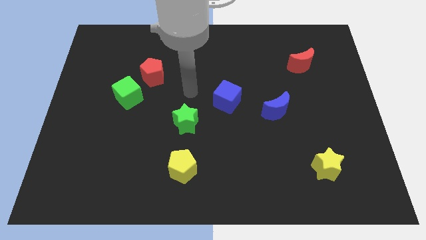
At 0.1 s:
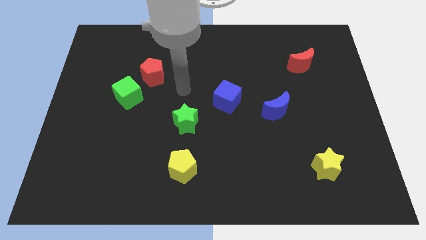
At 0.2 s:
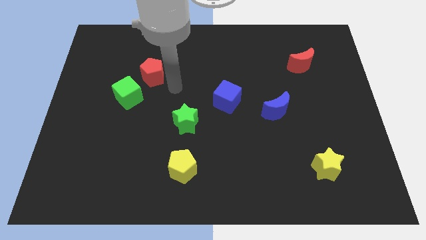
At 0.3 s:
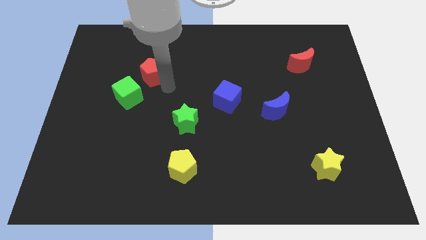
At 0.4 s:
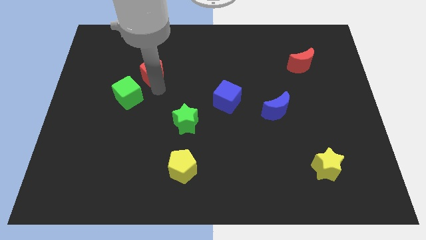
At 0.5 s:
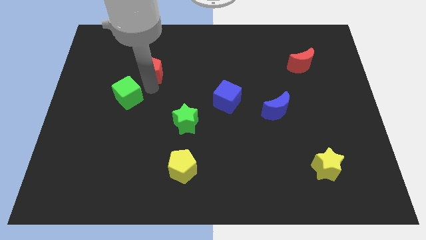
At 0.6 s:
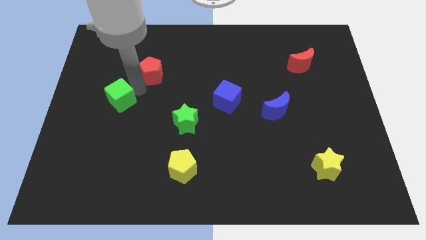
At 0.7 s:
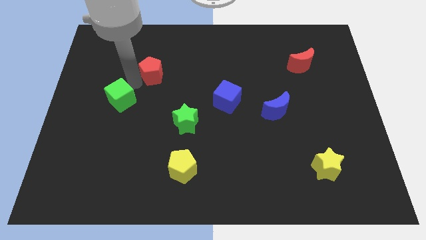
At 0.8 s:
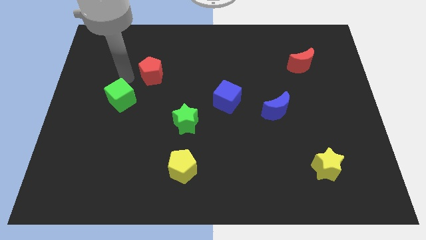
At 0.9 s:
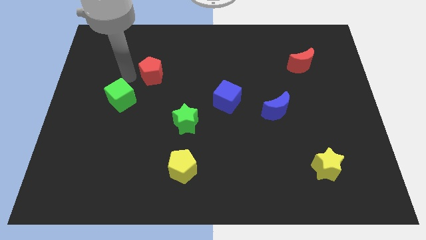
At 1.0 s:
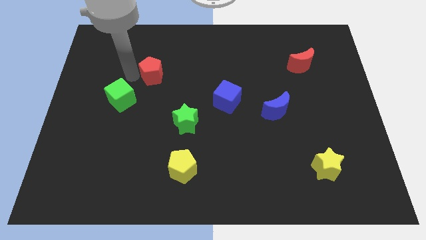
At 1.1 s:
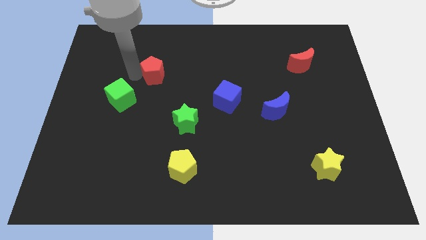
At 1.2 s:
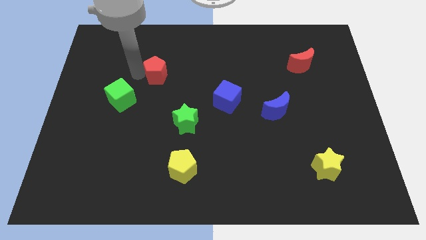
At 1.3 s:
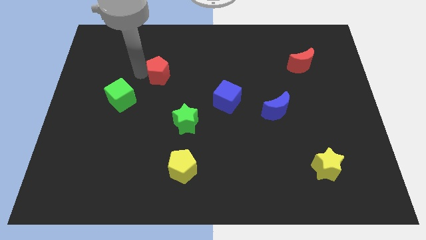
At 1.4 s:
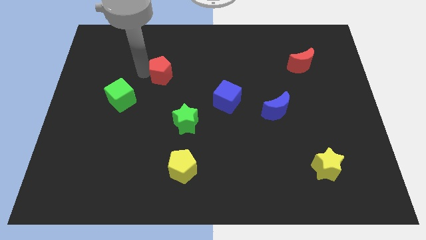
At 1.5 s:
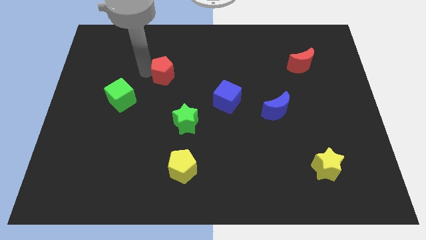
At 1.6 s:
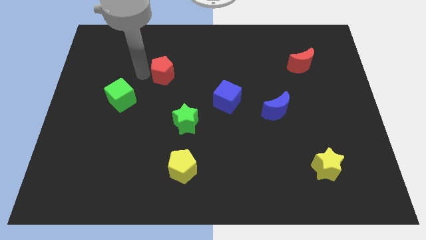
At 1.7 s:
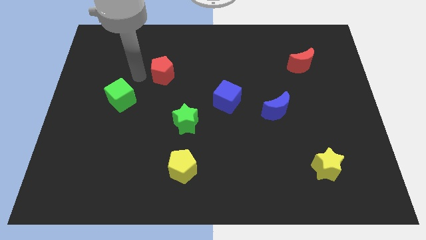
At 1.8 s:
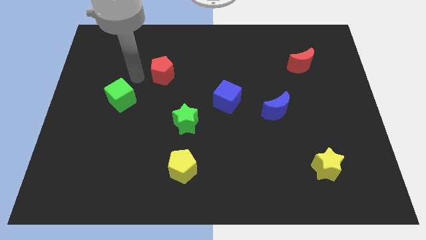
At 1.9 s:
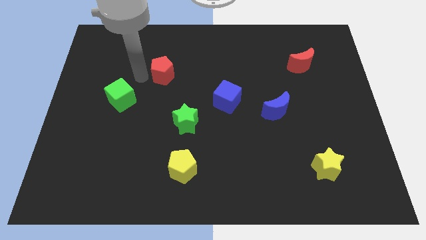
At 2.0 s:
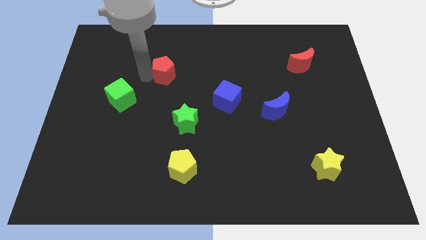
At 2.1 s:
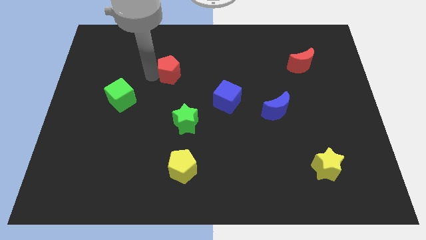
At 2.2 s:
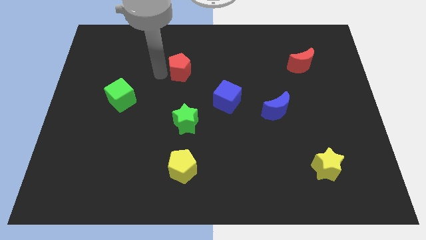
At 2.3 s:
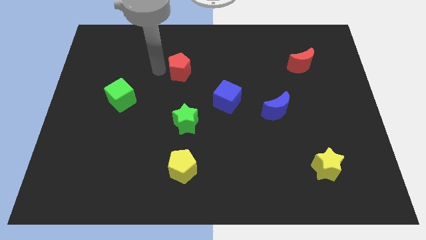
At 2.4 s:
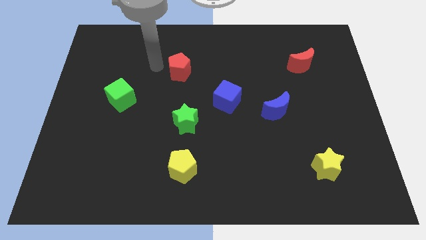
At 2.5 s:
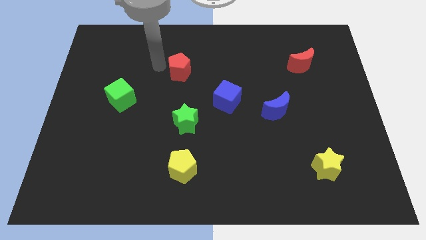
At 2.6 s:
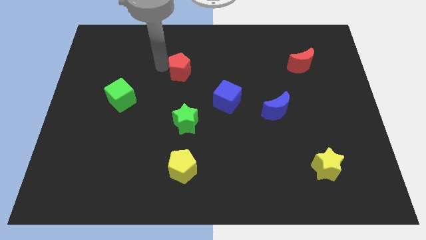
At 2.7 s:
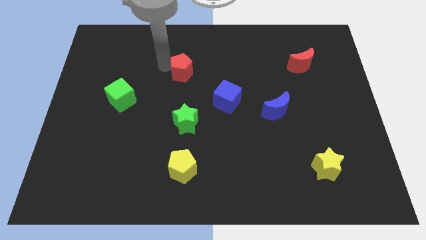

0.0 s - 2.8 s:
move the red pentagon right slightly

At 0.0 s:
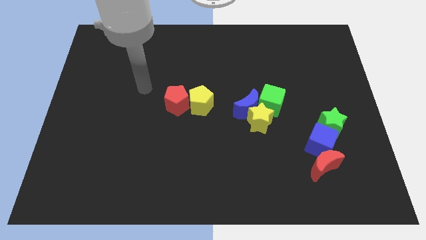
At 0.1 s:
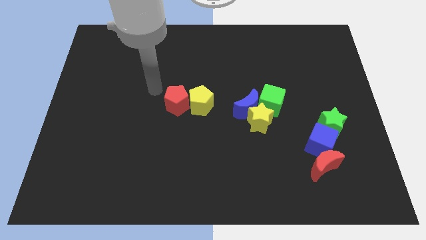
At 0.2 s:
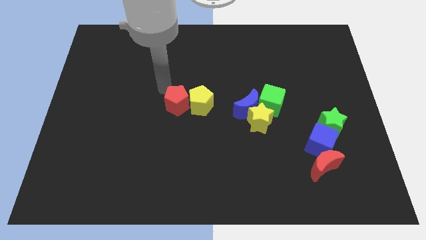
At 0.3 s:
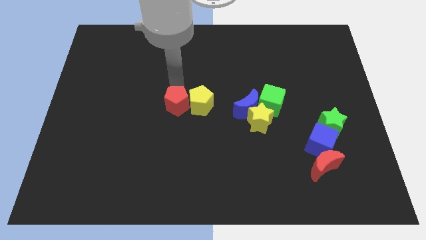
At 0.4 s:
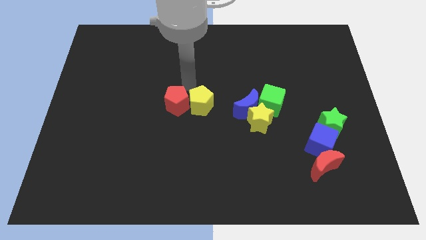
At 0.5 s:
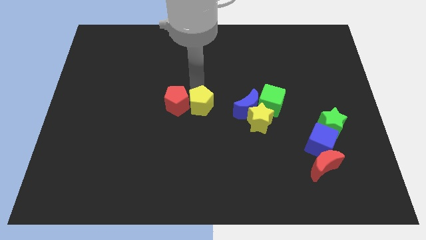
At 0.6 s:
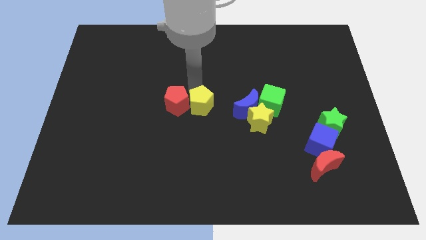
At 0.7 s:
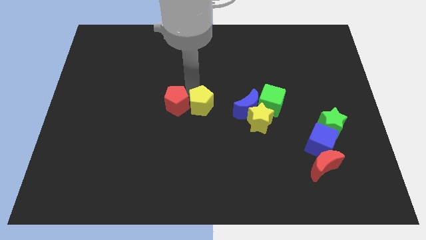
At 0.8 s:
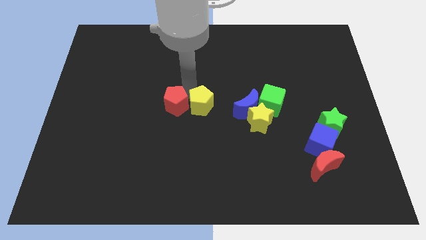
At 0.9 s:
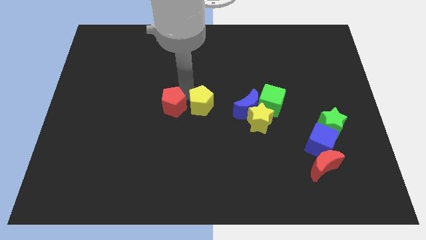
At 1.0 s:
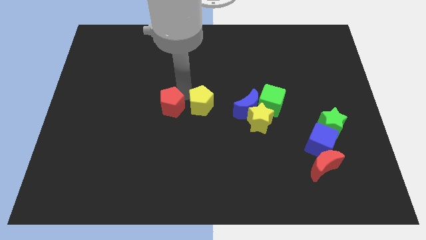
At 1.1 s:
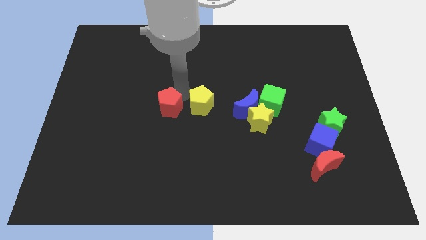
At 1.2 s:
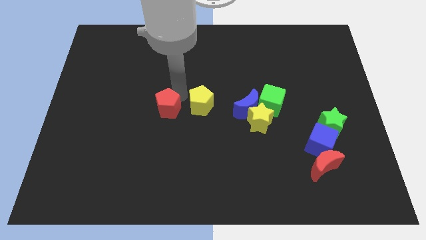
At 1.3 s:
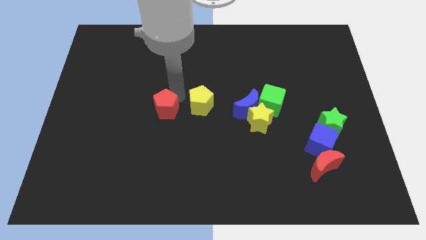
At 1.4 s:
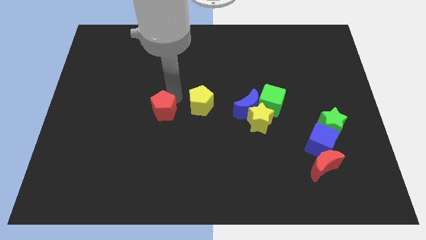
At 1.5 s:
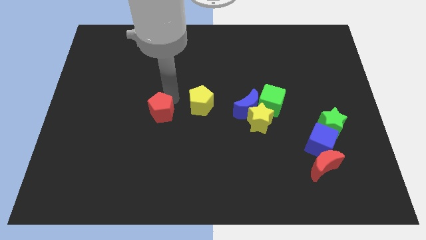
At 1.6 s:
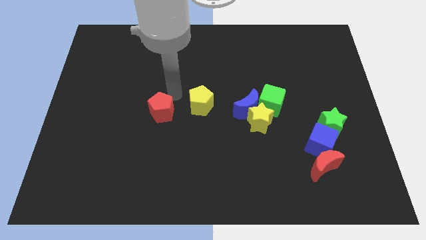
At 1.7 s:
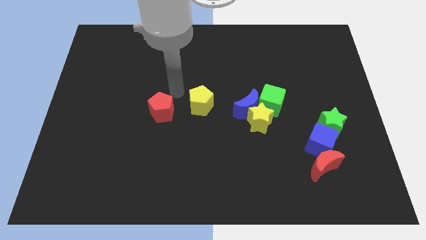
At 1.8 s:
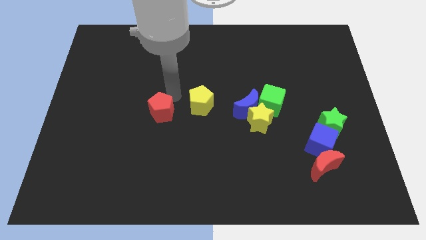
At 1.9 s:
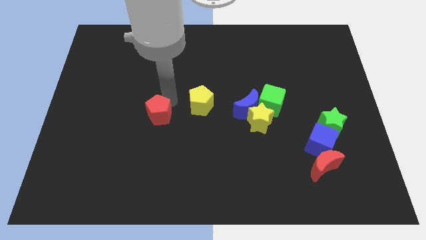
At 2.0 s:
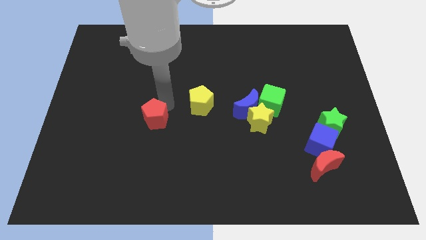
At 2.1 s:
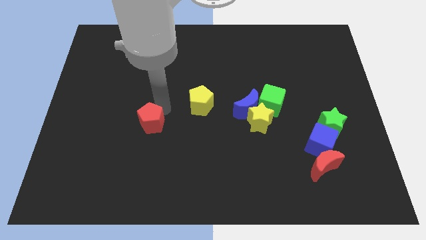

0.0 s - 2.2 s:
push the red pentagon down and to the left diagonally slightly

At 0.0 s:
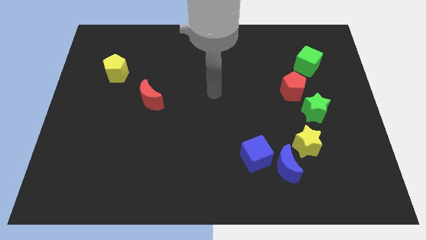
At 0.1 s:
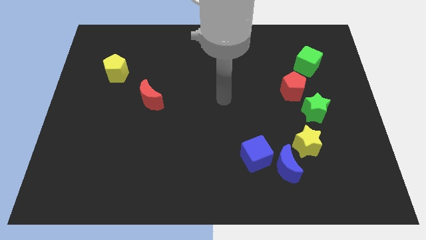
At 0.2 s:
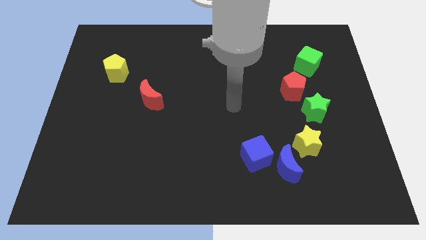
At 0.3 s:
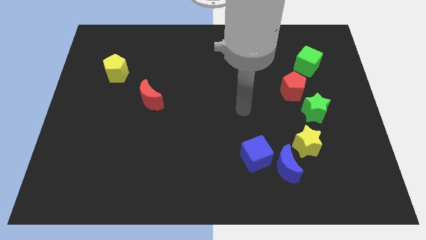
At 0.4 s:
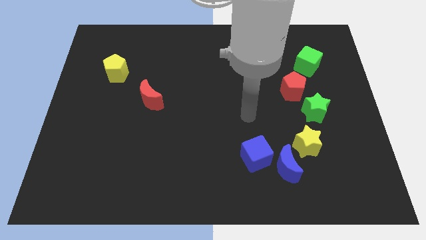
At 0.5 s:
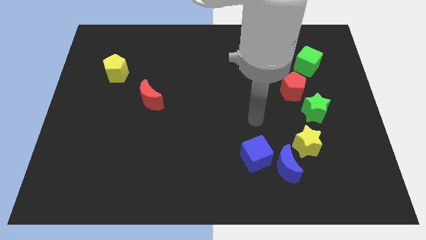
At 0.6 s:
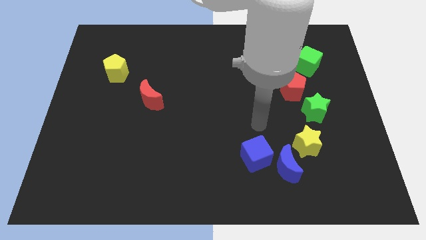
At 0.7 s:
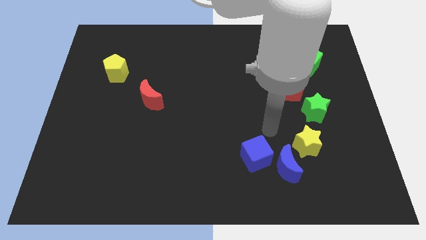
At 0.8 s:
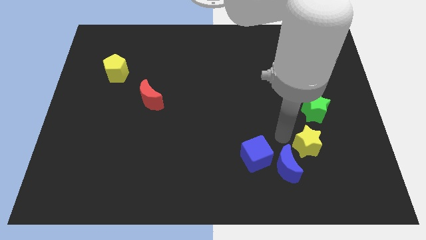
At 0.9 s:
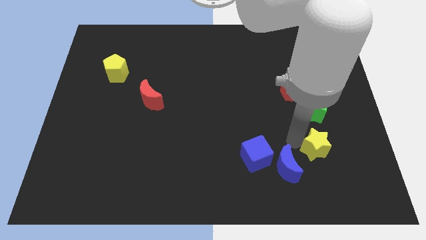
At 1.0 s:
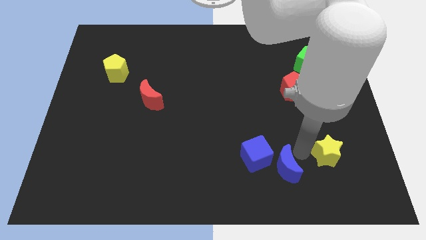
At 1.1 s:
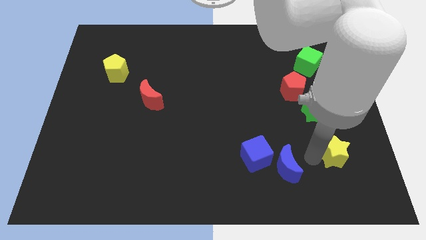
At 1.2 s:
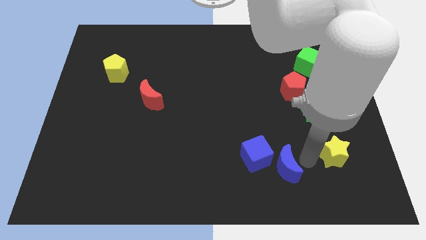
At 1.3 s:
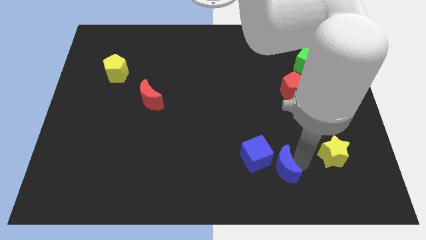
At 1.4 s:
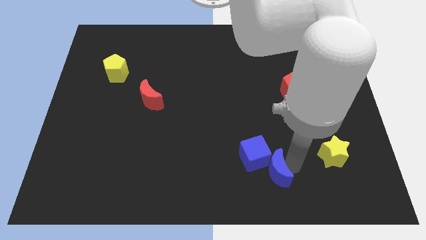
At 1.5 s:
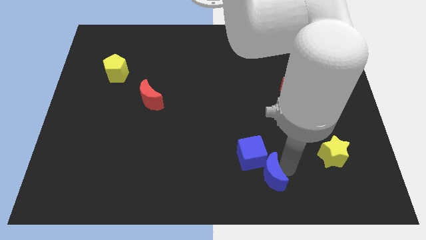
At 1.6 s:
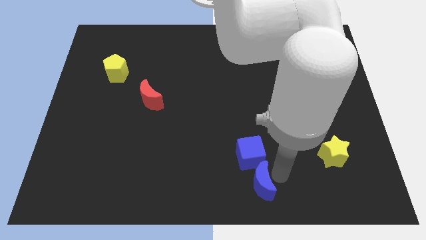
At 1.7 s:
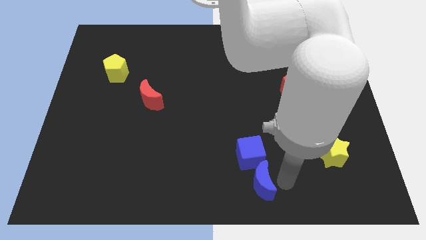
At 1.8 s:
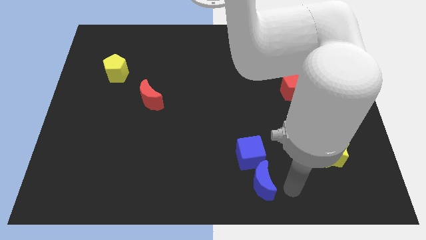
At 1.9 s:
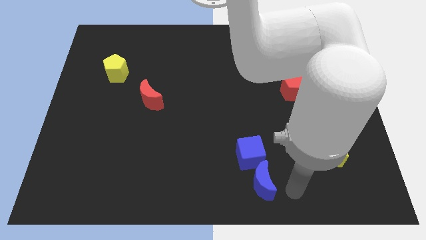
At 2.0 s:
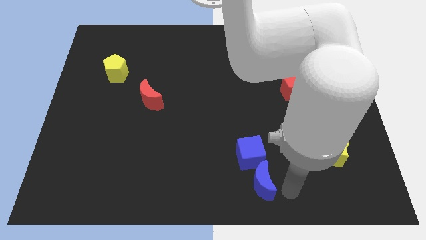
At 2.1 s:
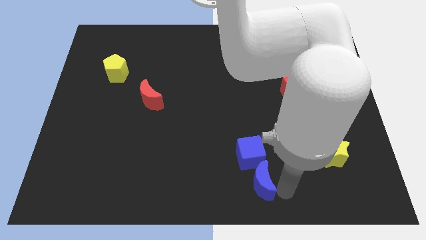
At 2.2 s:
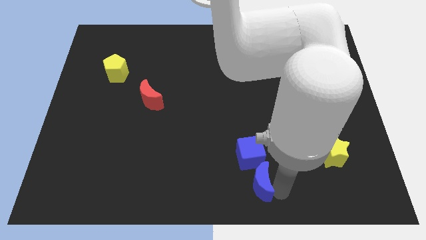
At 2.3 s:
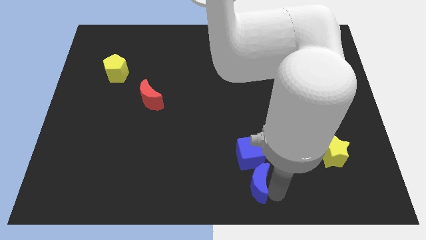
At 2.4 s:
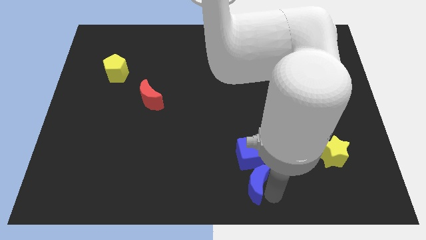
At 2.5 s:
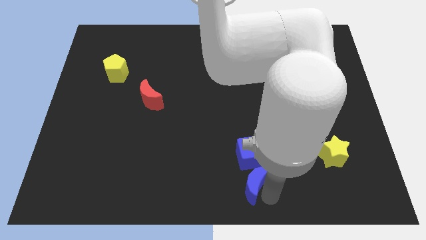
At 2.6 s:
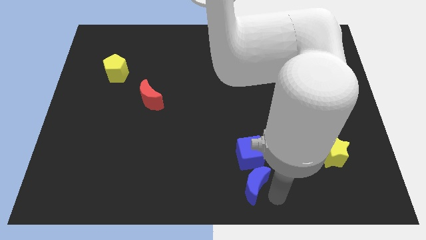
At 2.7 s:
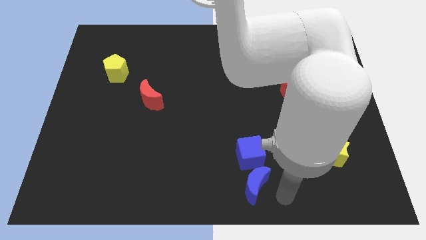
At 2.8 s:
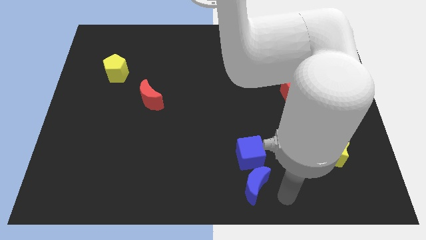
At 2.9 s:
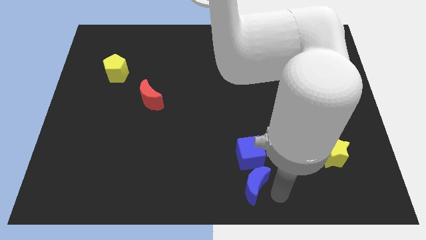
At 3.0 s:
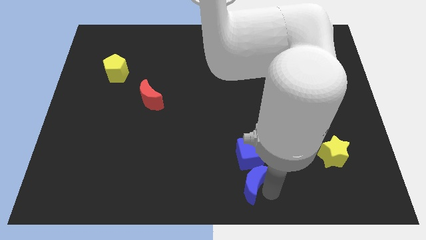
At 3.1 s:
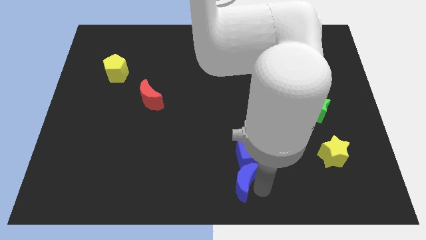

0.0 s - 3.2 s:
push the blue moon left a little bit
